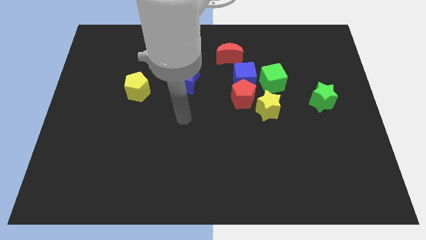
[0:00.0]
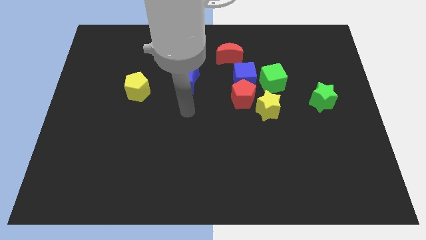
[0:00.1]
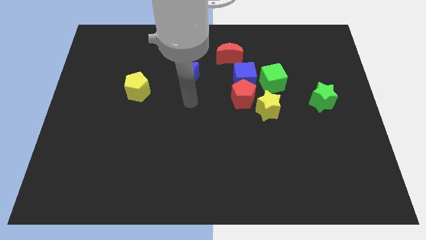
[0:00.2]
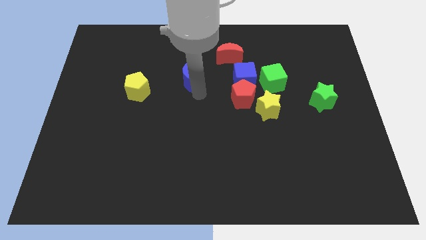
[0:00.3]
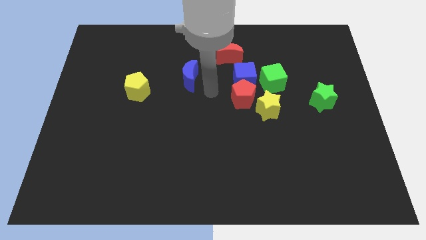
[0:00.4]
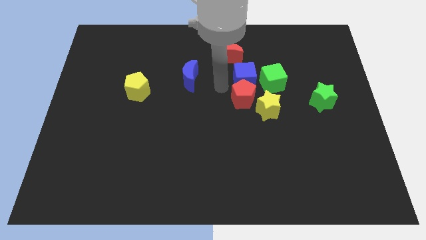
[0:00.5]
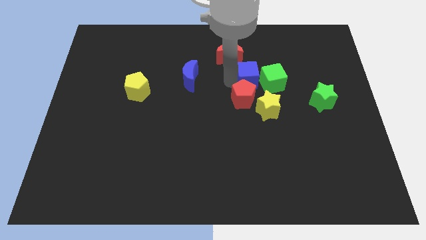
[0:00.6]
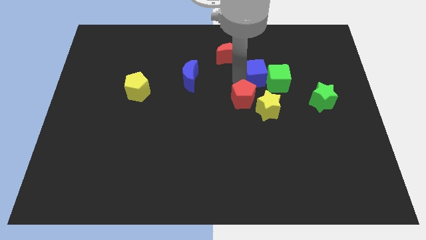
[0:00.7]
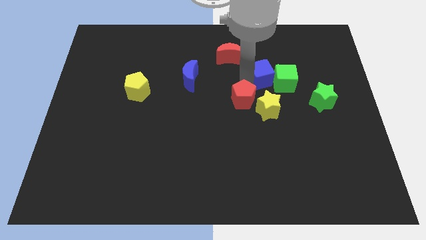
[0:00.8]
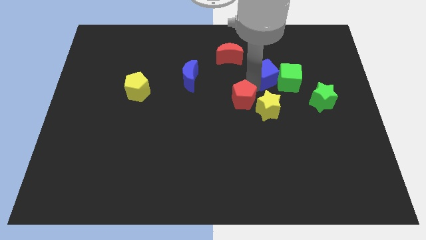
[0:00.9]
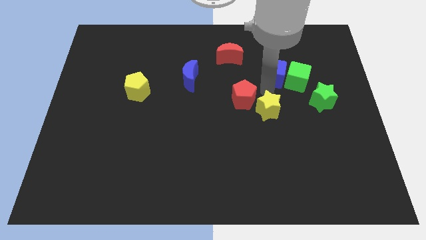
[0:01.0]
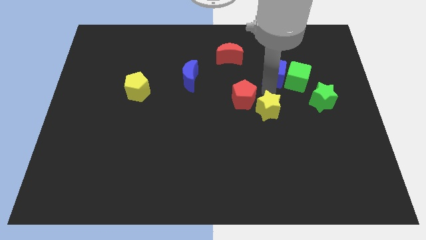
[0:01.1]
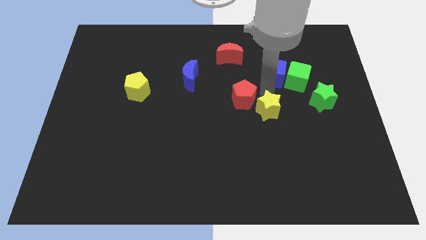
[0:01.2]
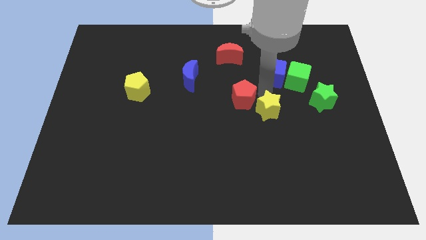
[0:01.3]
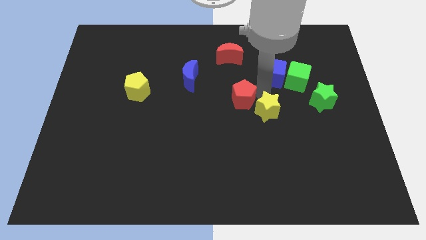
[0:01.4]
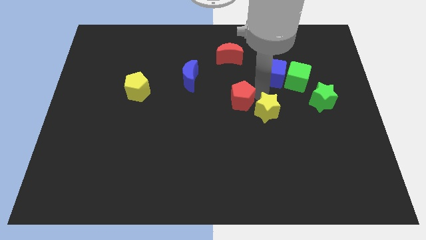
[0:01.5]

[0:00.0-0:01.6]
move the red pentagon away from the clump

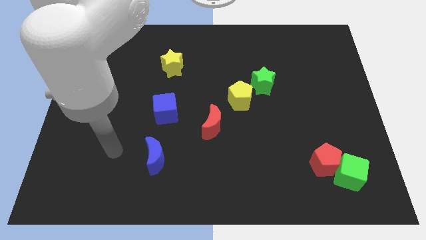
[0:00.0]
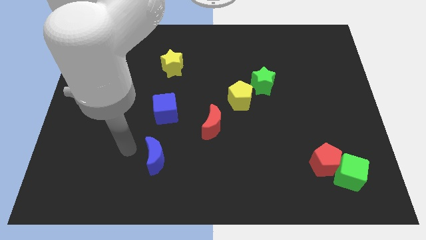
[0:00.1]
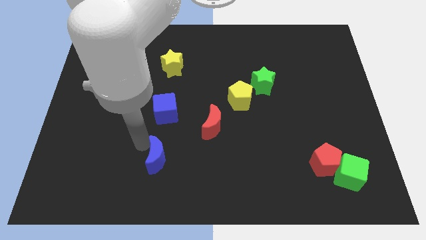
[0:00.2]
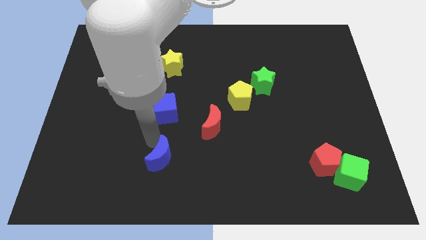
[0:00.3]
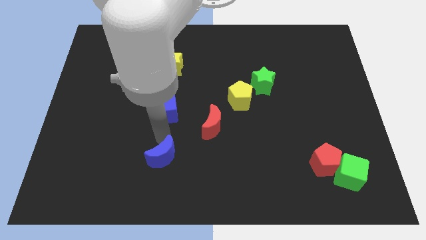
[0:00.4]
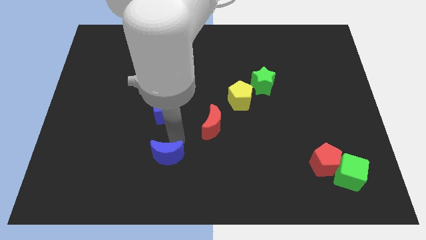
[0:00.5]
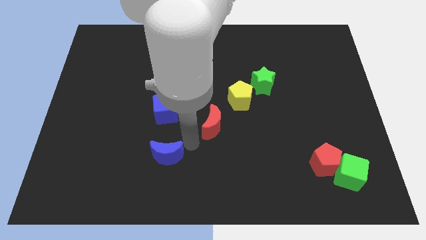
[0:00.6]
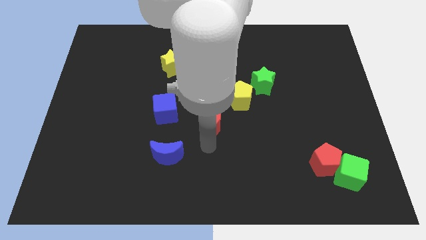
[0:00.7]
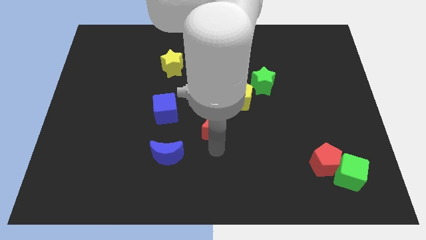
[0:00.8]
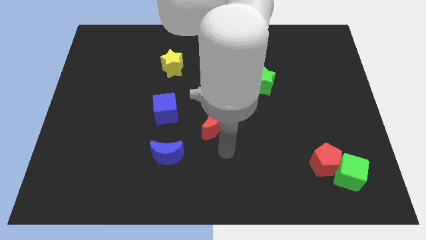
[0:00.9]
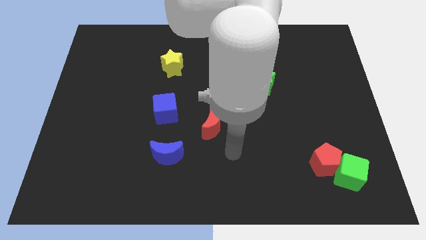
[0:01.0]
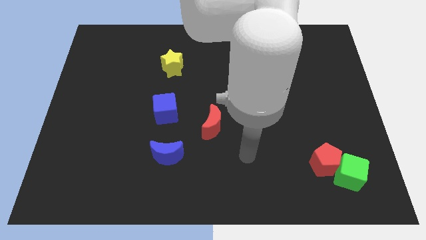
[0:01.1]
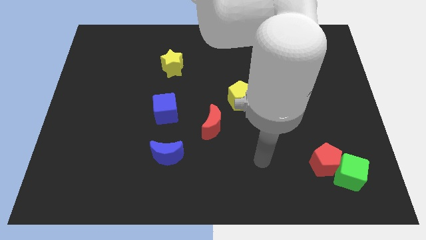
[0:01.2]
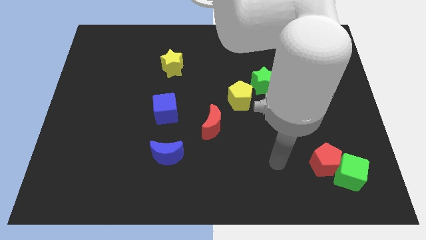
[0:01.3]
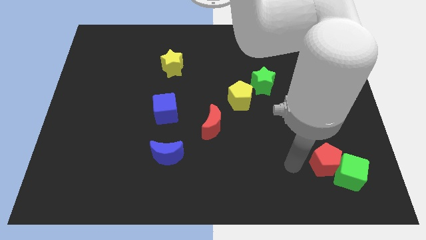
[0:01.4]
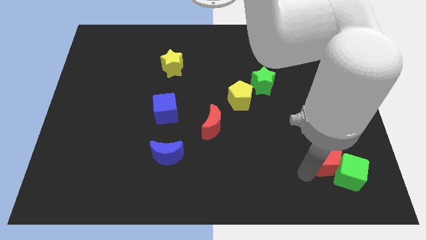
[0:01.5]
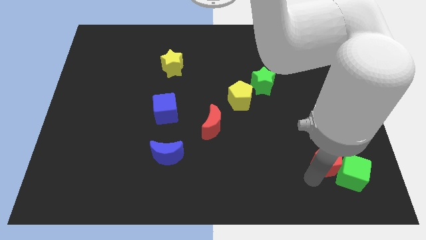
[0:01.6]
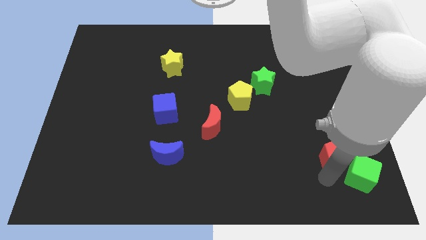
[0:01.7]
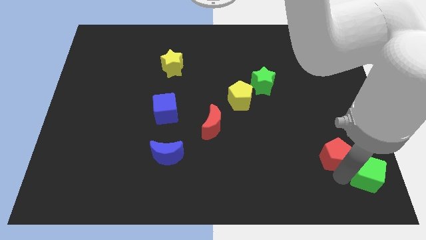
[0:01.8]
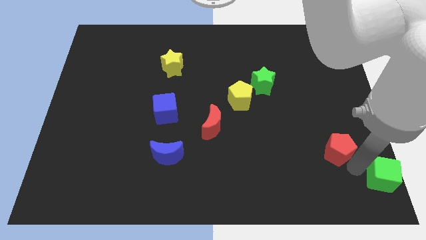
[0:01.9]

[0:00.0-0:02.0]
pull the red pentagon apart from the green cube

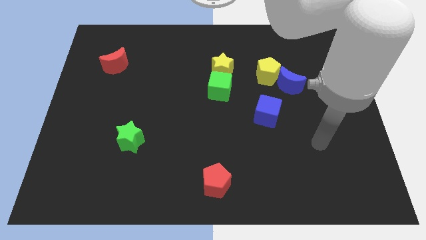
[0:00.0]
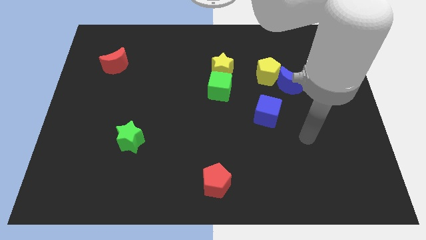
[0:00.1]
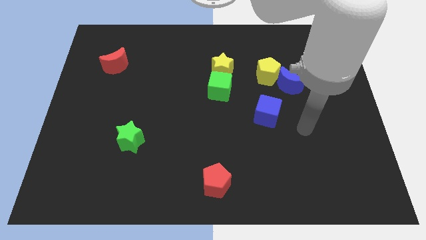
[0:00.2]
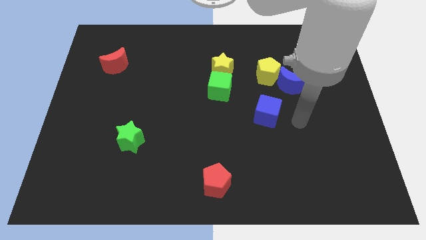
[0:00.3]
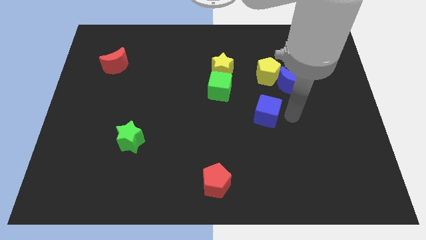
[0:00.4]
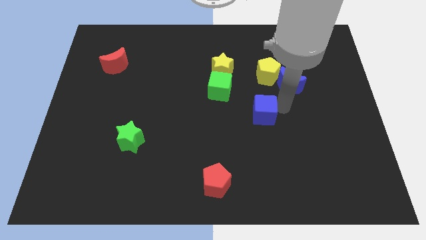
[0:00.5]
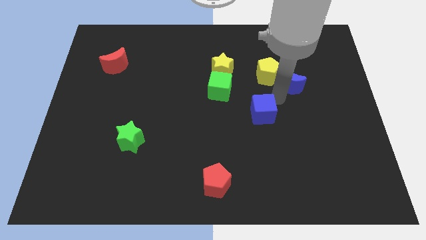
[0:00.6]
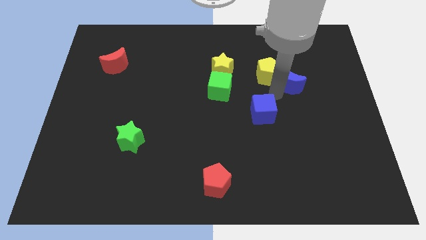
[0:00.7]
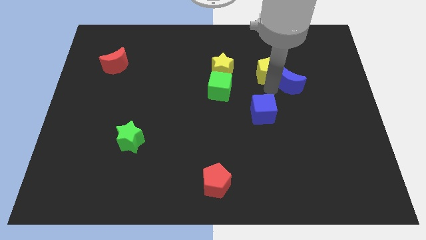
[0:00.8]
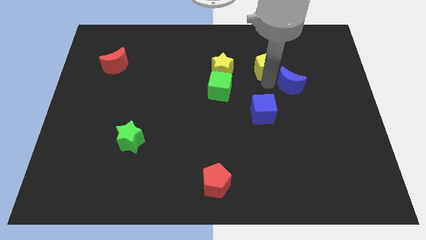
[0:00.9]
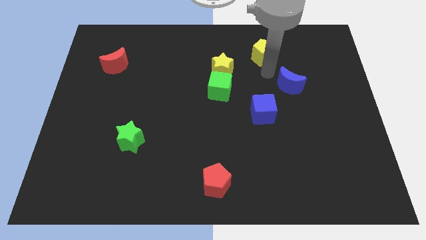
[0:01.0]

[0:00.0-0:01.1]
move the blue moon away from the yellow pentagon

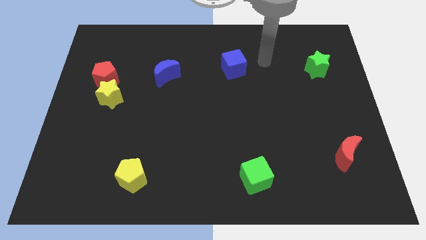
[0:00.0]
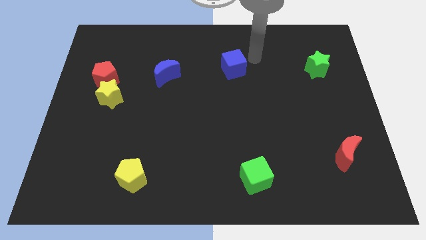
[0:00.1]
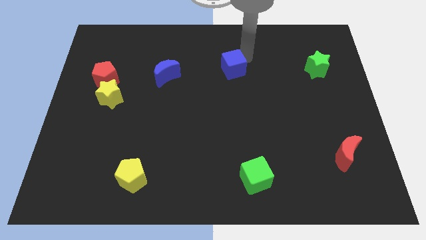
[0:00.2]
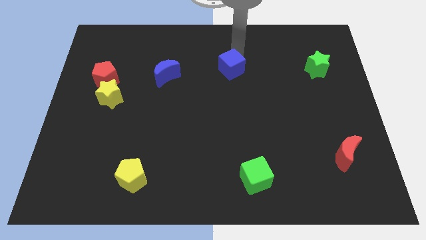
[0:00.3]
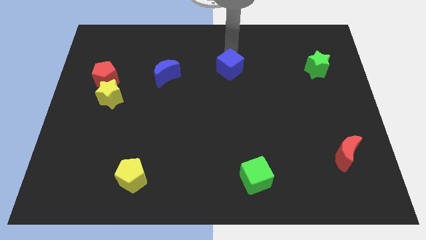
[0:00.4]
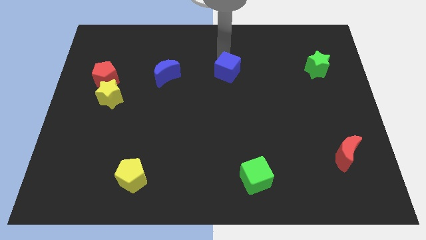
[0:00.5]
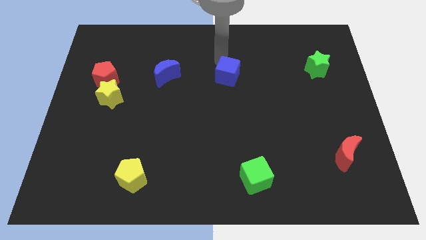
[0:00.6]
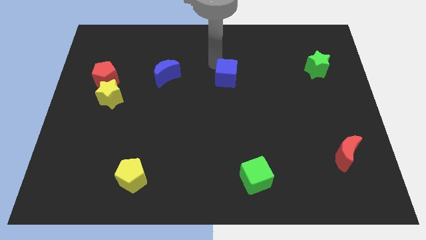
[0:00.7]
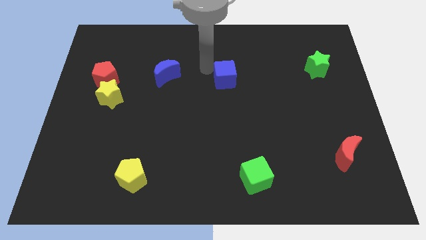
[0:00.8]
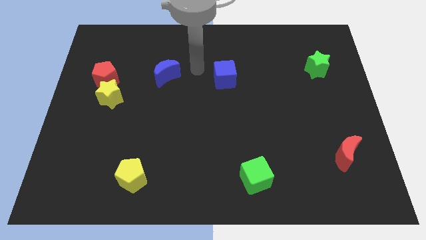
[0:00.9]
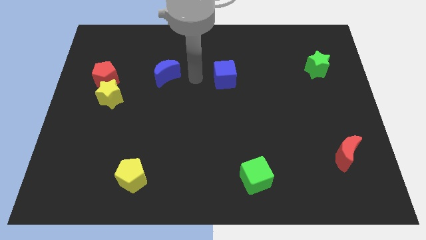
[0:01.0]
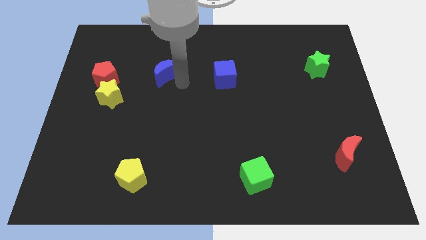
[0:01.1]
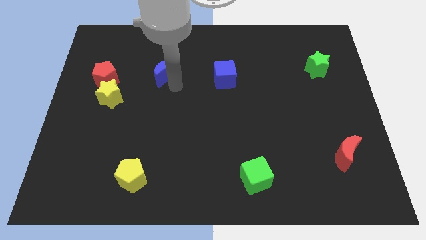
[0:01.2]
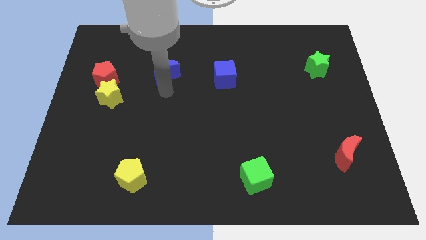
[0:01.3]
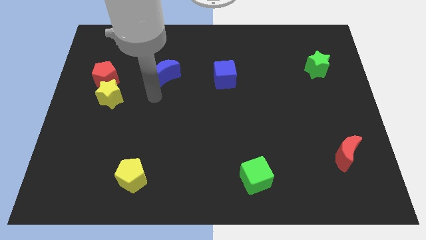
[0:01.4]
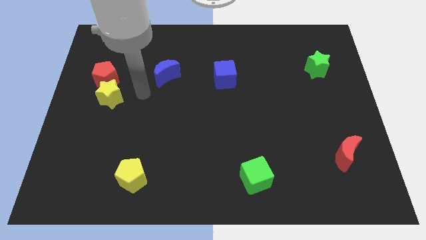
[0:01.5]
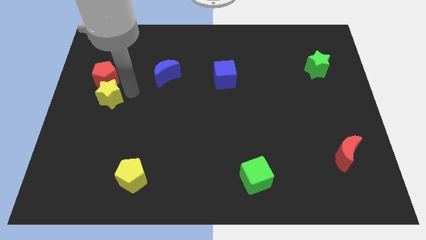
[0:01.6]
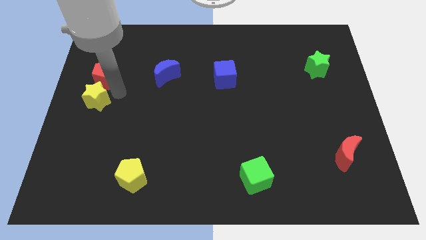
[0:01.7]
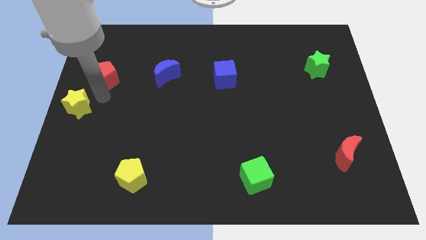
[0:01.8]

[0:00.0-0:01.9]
pull the red pentagon apart from the yellow star

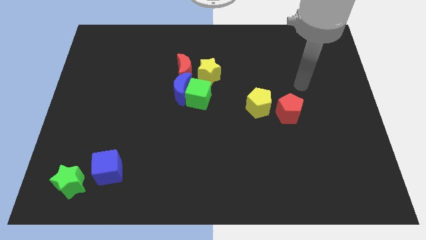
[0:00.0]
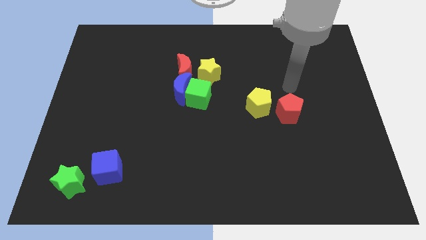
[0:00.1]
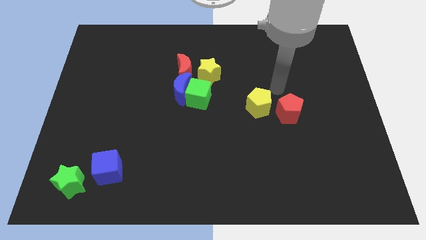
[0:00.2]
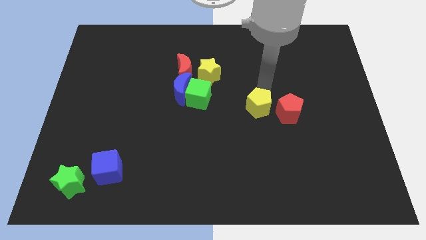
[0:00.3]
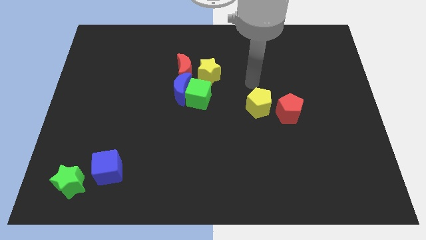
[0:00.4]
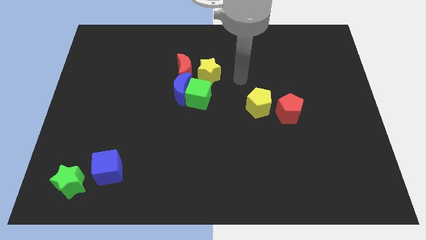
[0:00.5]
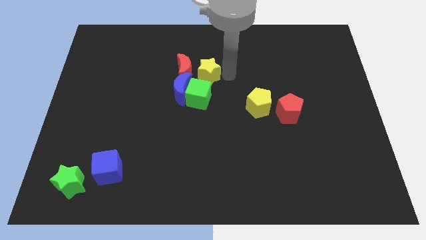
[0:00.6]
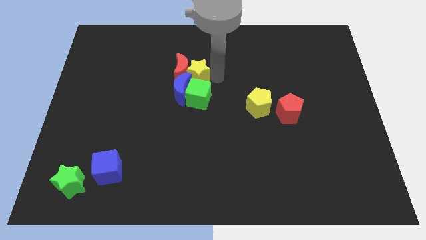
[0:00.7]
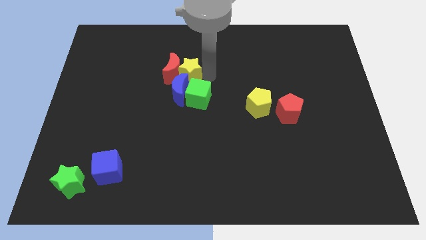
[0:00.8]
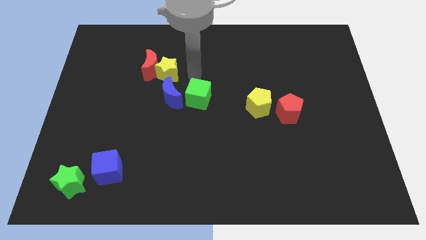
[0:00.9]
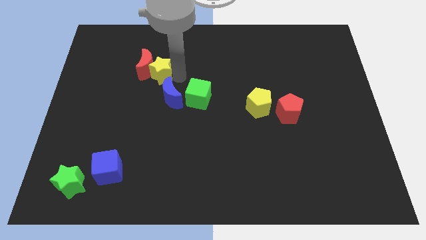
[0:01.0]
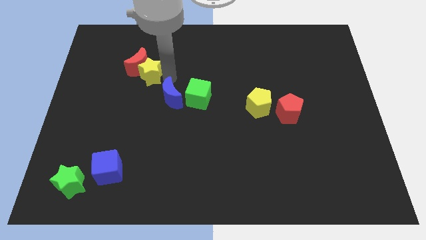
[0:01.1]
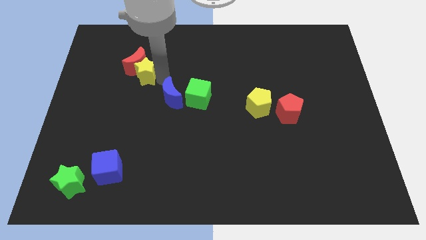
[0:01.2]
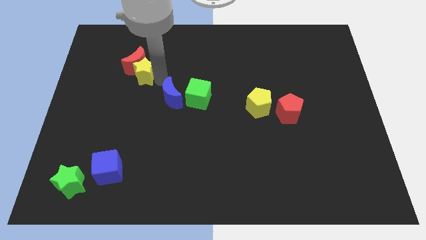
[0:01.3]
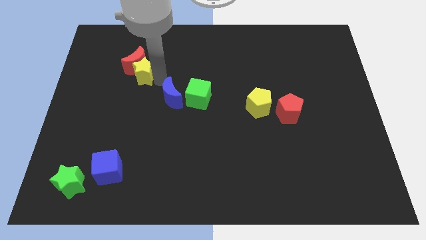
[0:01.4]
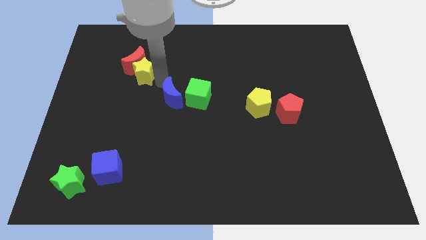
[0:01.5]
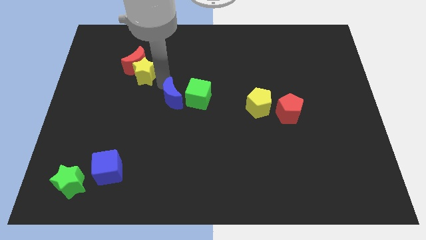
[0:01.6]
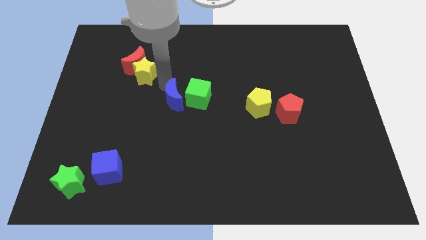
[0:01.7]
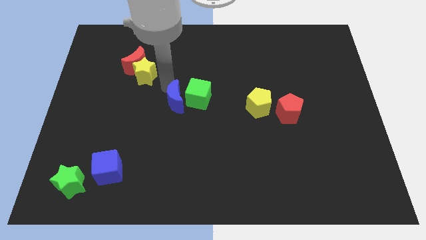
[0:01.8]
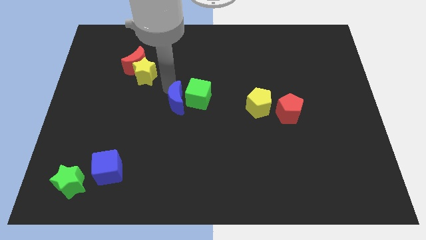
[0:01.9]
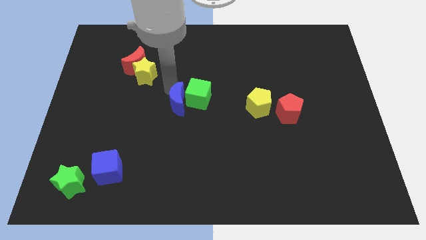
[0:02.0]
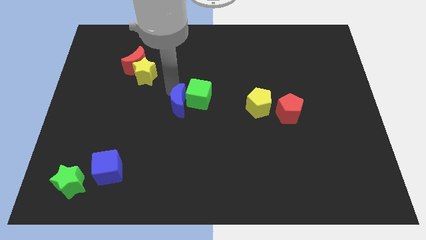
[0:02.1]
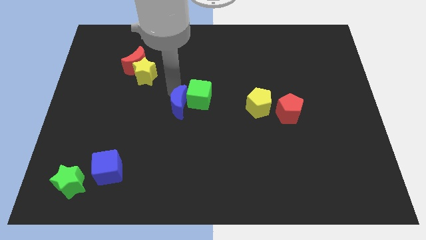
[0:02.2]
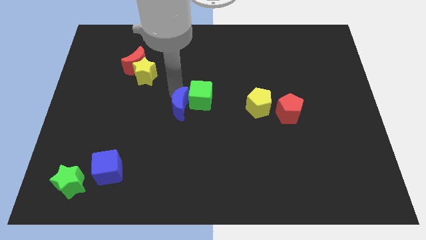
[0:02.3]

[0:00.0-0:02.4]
move the blue moon away from the green cube, red moon, and yellow star

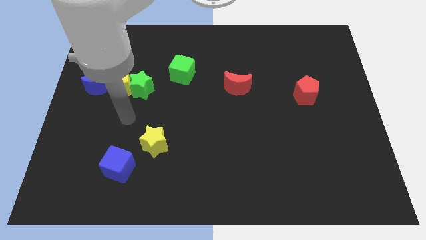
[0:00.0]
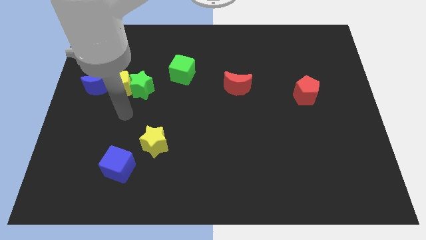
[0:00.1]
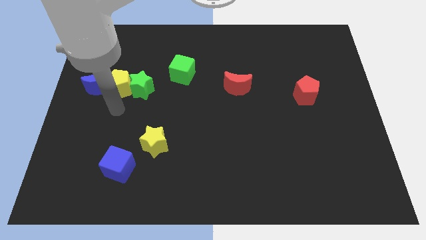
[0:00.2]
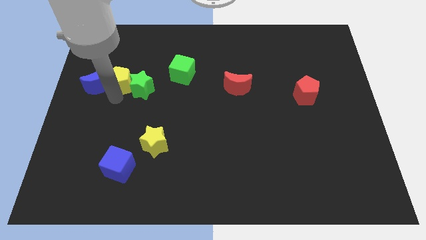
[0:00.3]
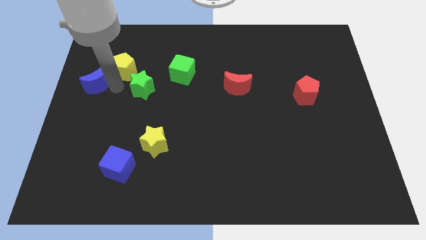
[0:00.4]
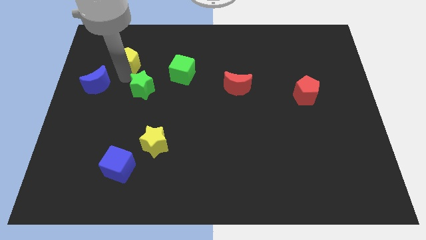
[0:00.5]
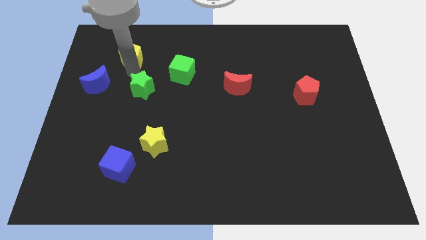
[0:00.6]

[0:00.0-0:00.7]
separate the green star from the yellow pentagon
